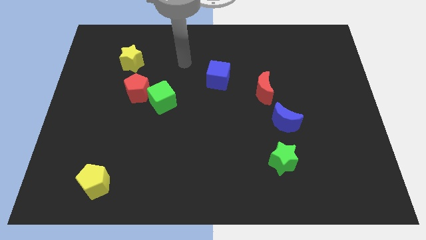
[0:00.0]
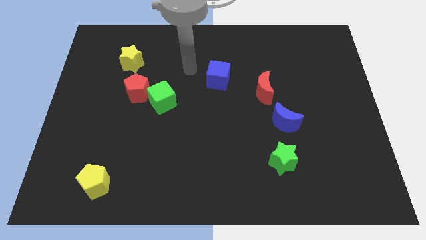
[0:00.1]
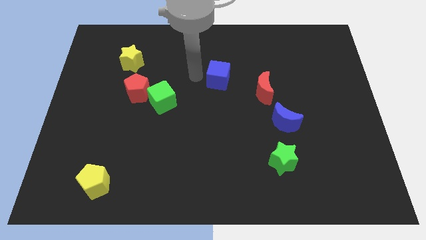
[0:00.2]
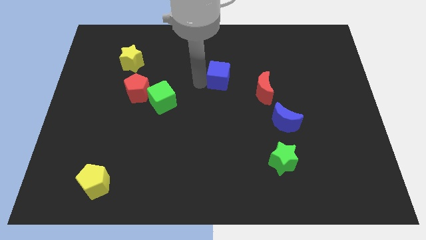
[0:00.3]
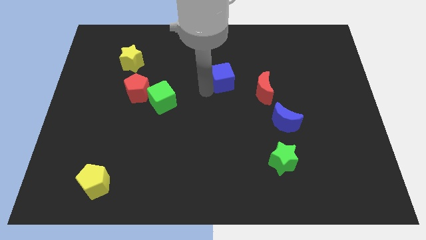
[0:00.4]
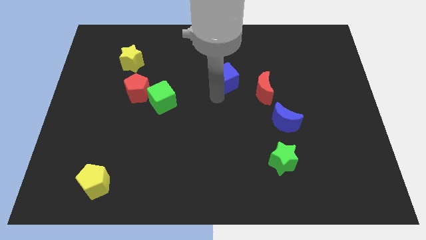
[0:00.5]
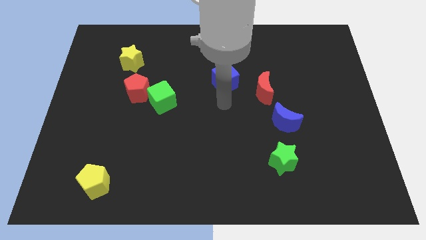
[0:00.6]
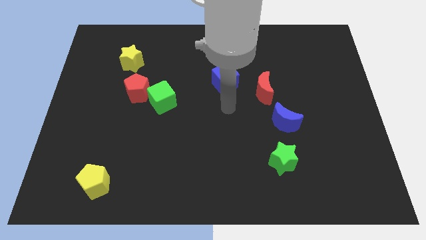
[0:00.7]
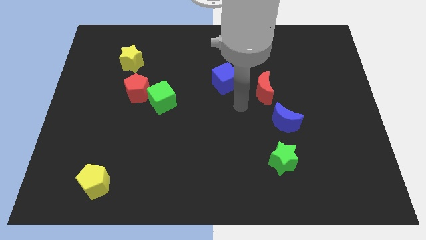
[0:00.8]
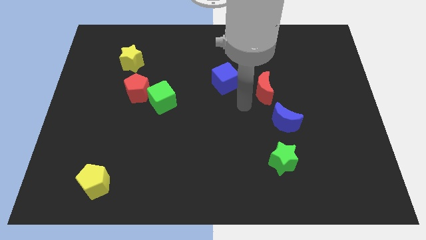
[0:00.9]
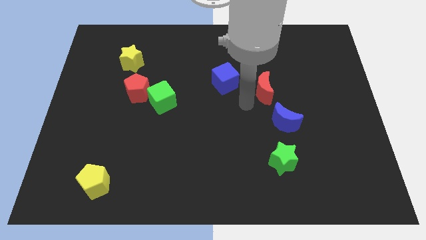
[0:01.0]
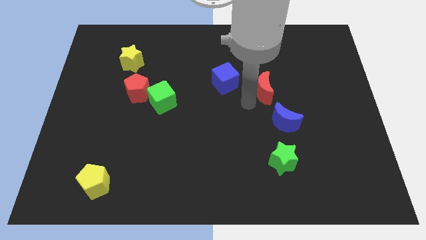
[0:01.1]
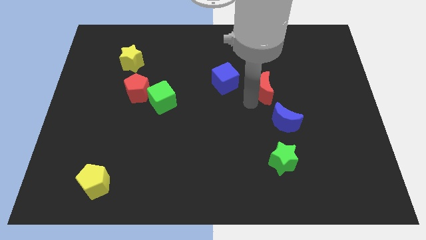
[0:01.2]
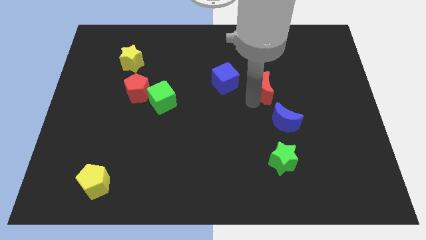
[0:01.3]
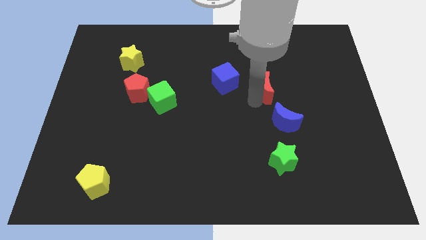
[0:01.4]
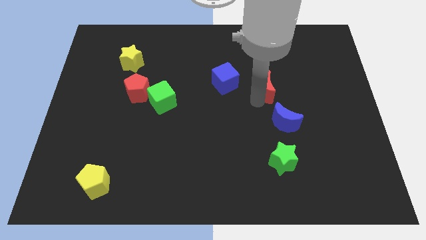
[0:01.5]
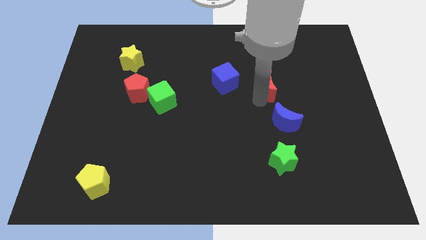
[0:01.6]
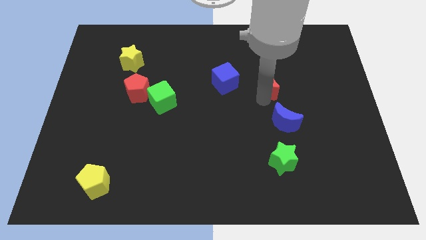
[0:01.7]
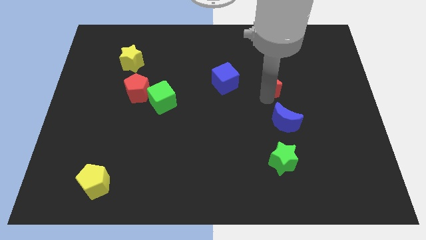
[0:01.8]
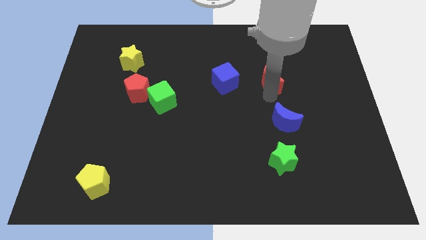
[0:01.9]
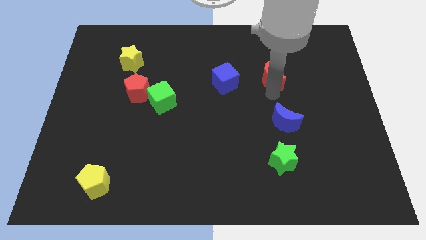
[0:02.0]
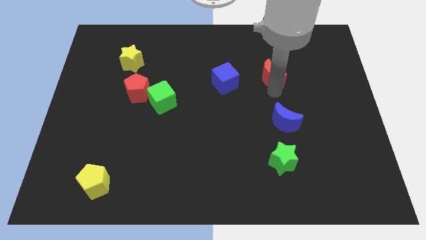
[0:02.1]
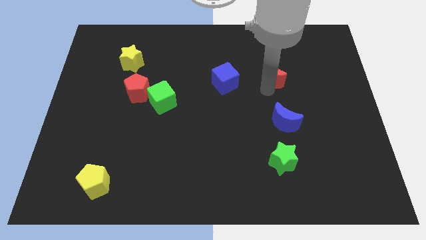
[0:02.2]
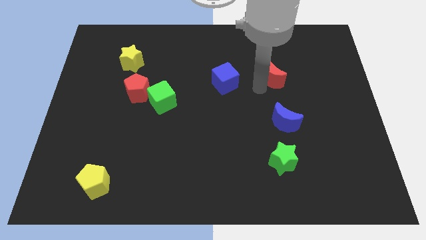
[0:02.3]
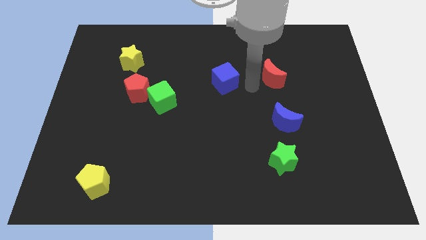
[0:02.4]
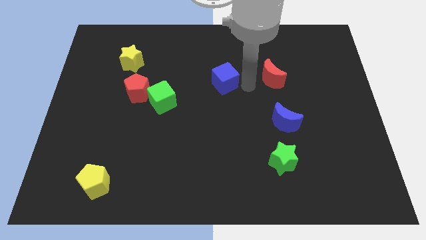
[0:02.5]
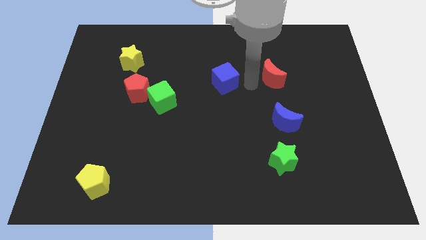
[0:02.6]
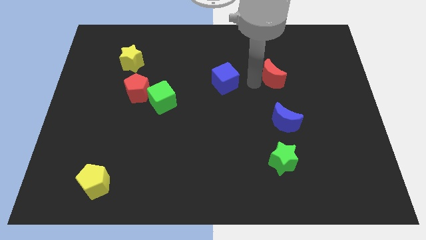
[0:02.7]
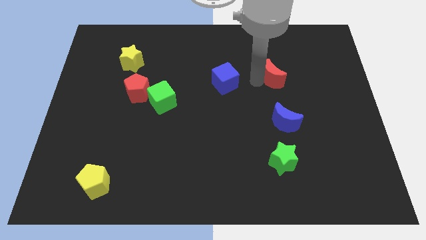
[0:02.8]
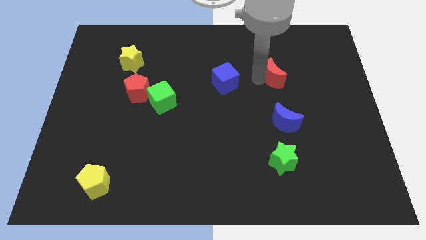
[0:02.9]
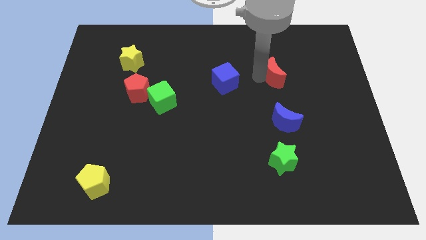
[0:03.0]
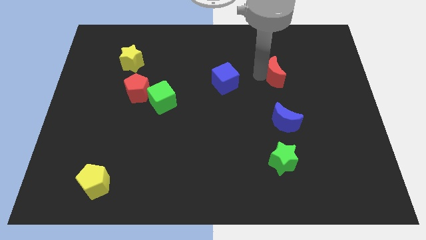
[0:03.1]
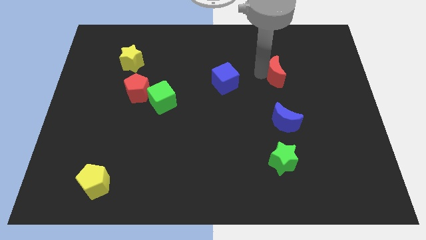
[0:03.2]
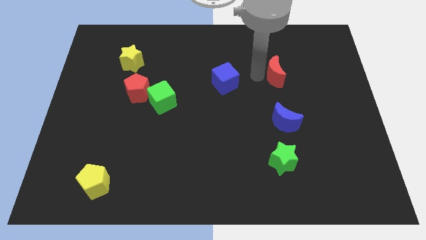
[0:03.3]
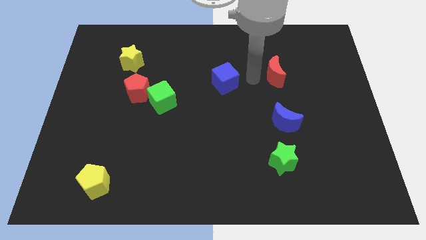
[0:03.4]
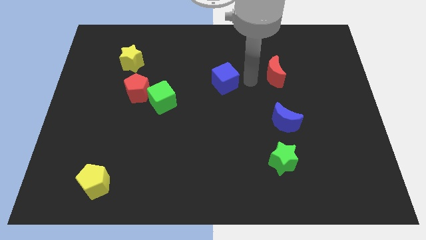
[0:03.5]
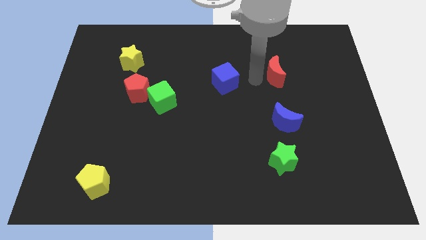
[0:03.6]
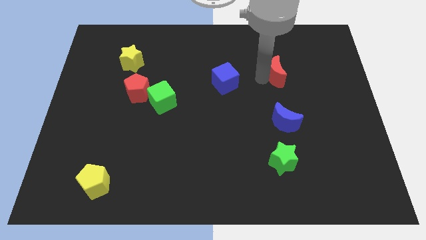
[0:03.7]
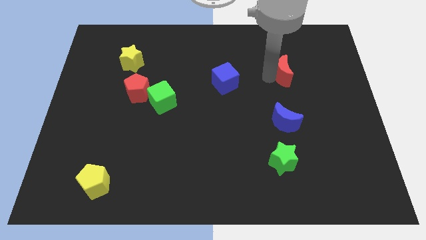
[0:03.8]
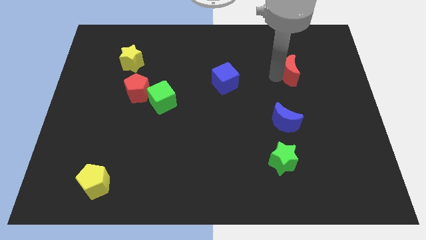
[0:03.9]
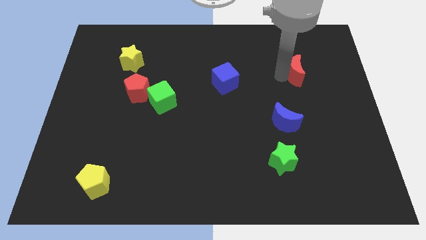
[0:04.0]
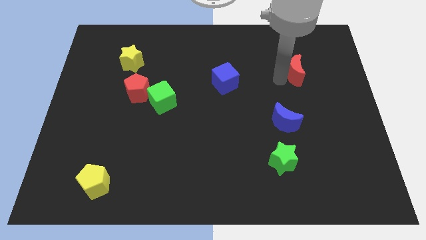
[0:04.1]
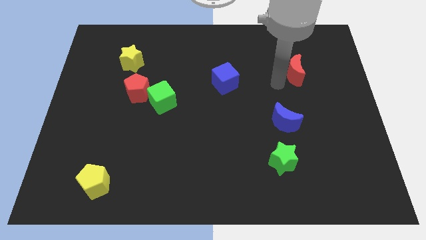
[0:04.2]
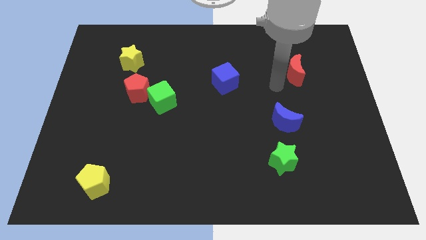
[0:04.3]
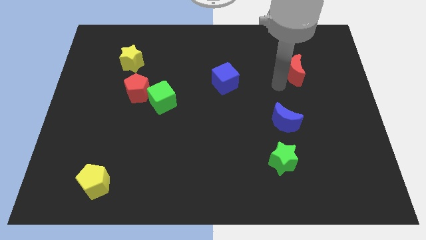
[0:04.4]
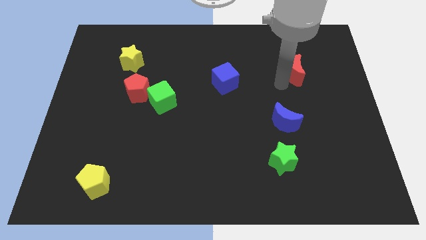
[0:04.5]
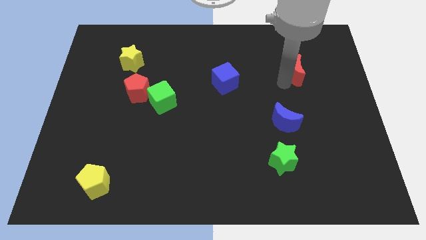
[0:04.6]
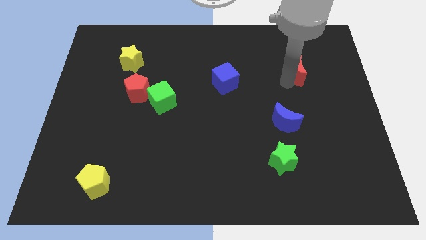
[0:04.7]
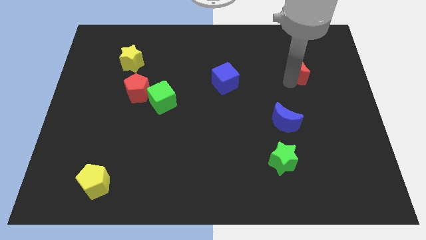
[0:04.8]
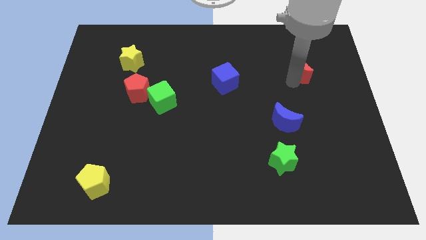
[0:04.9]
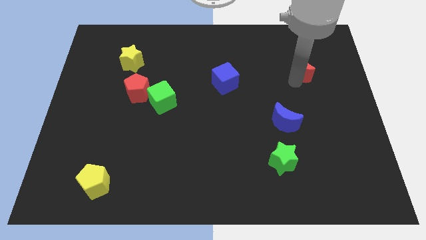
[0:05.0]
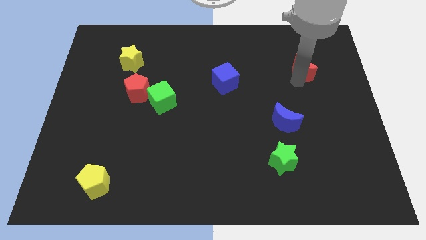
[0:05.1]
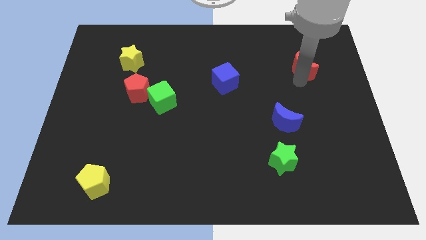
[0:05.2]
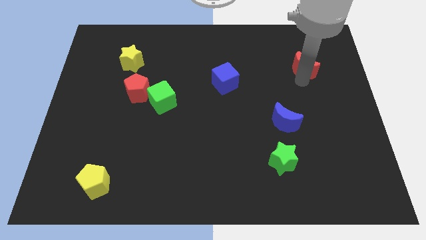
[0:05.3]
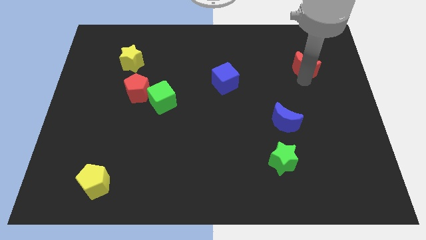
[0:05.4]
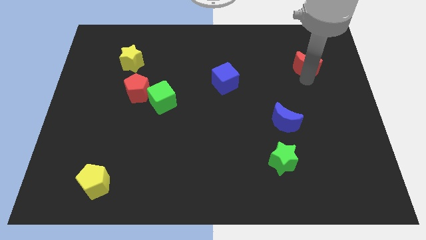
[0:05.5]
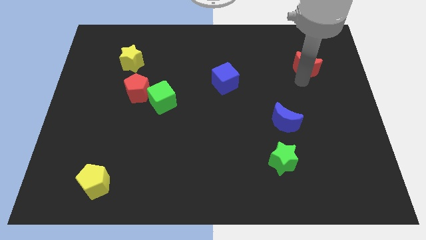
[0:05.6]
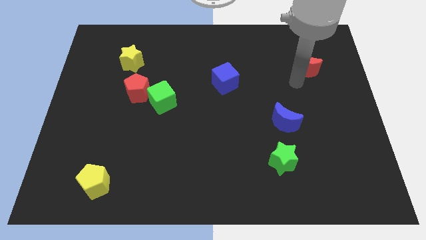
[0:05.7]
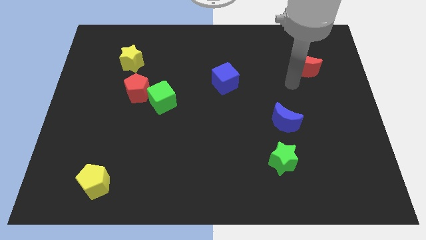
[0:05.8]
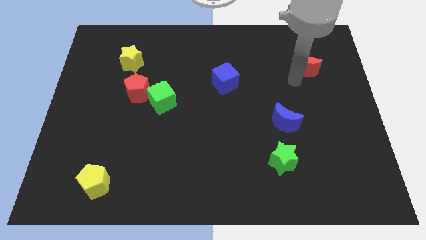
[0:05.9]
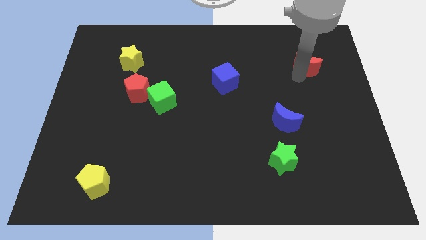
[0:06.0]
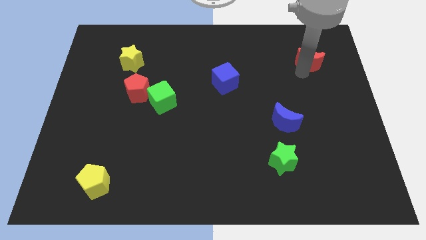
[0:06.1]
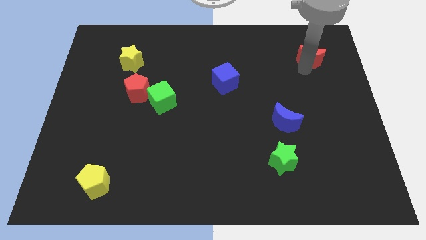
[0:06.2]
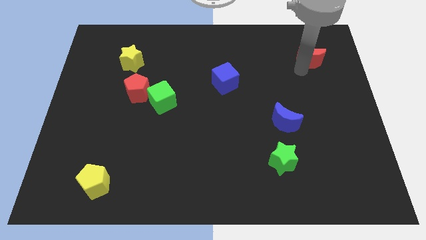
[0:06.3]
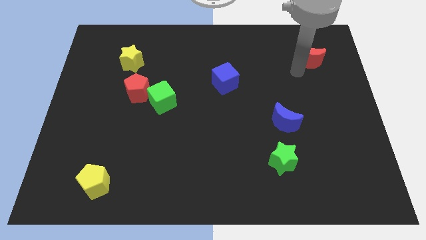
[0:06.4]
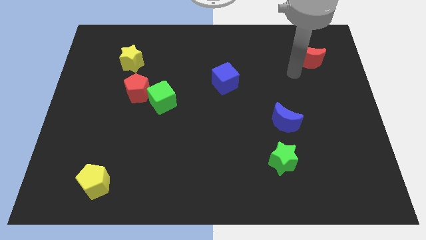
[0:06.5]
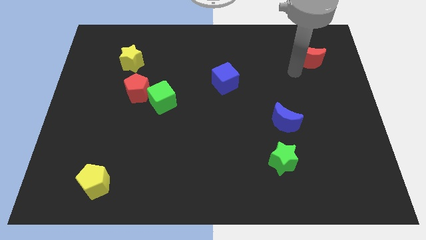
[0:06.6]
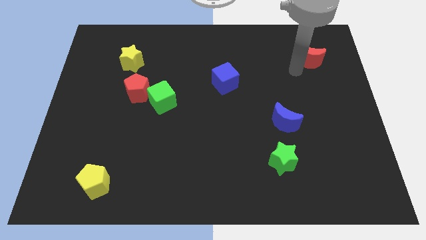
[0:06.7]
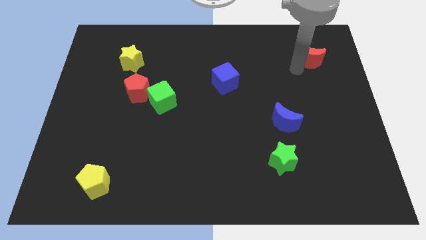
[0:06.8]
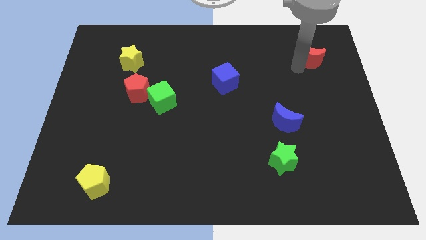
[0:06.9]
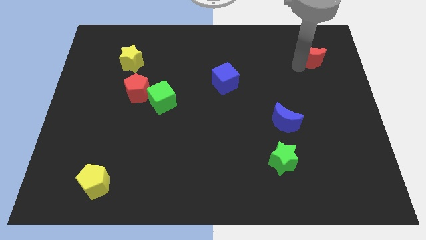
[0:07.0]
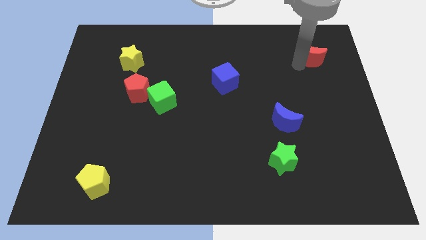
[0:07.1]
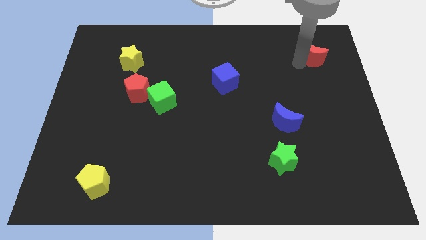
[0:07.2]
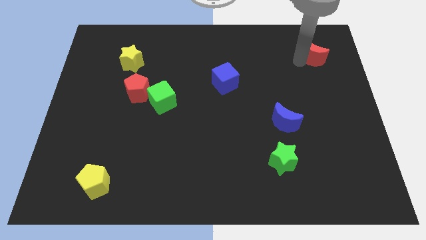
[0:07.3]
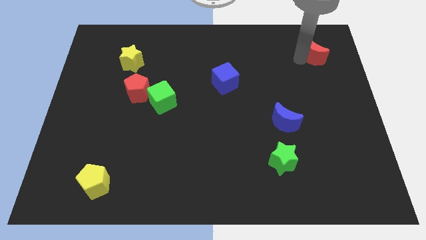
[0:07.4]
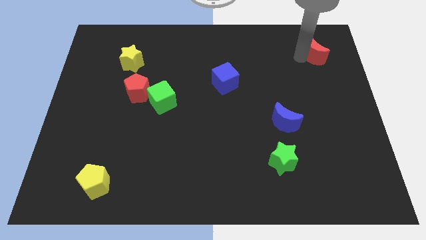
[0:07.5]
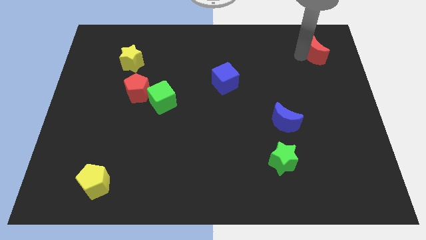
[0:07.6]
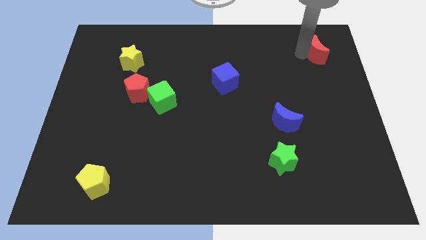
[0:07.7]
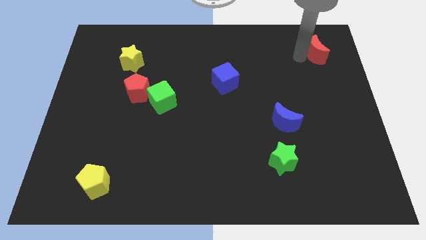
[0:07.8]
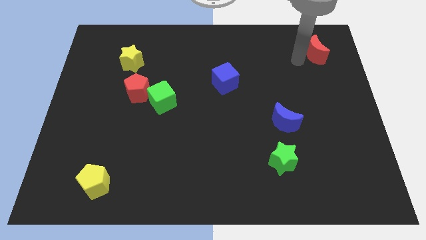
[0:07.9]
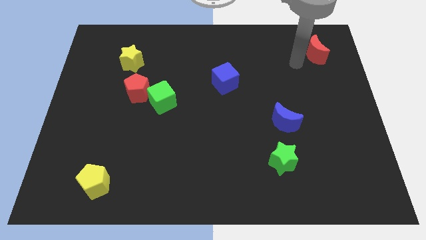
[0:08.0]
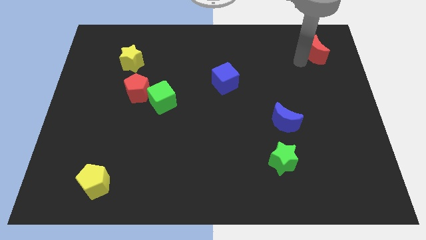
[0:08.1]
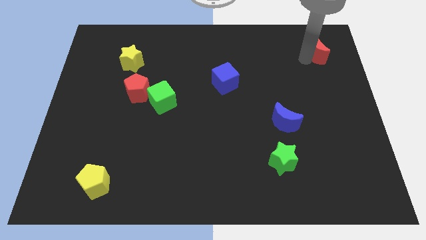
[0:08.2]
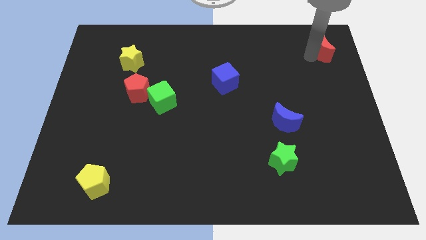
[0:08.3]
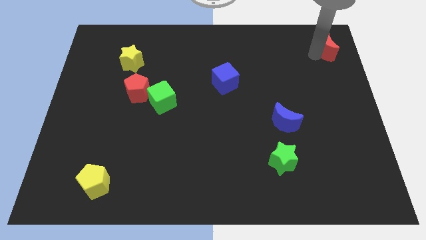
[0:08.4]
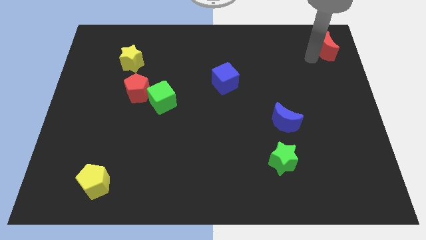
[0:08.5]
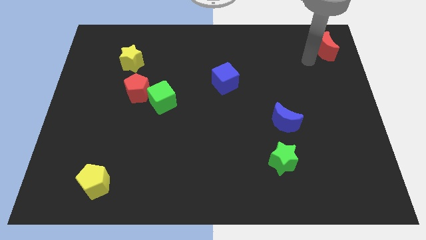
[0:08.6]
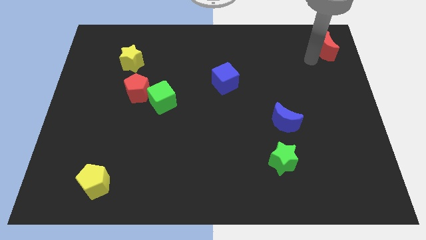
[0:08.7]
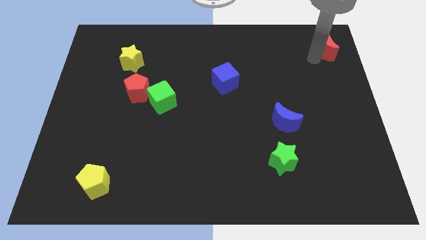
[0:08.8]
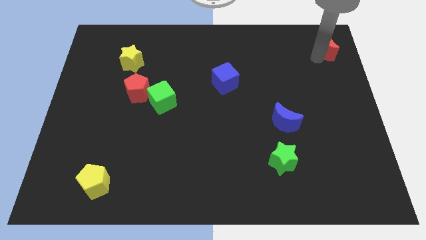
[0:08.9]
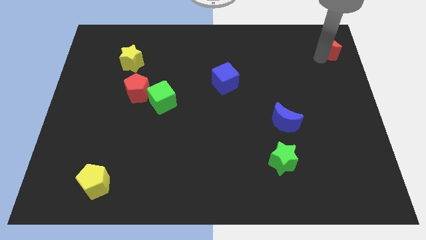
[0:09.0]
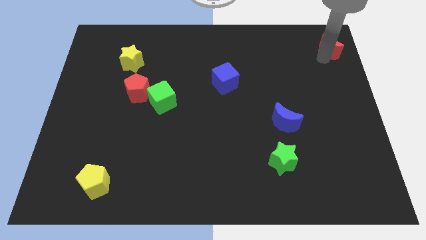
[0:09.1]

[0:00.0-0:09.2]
put the red moon to the top right of the board
